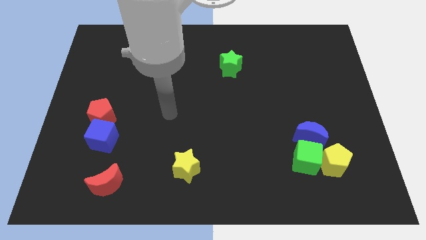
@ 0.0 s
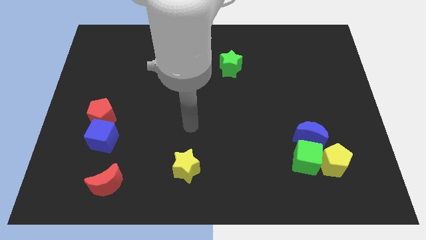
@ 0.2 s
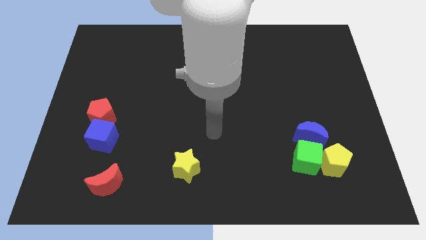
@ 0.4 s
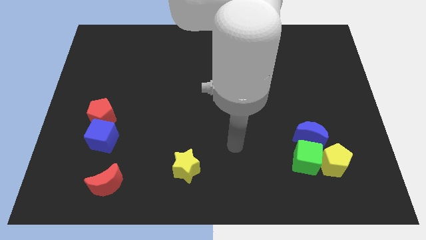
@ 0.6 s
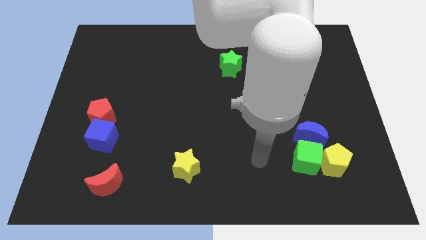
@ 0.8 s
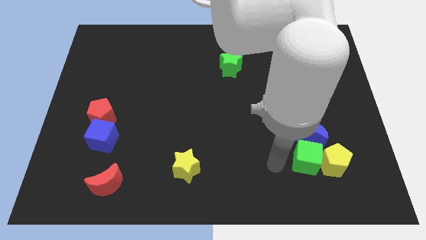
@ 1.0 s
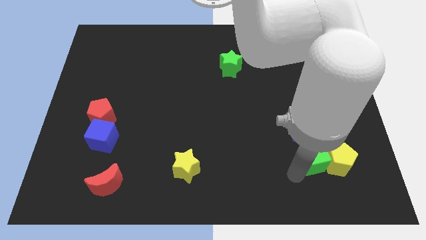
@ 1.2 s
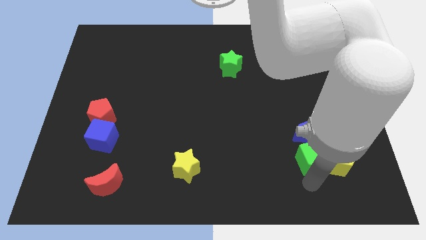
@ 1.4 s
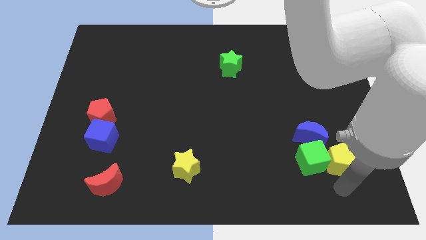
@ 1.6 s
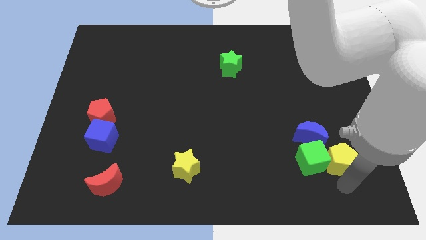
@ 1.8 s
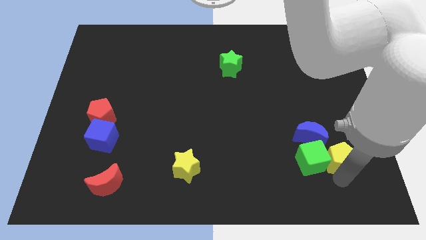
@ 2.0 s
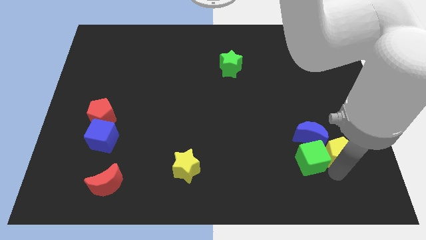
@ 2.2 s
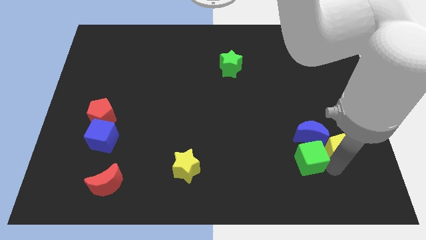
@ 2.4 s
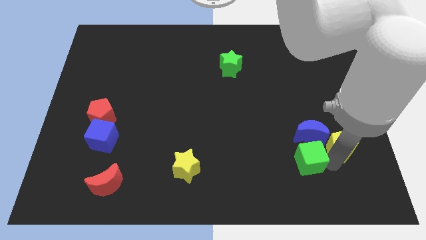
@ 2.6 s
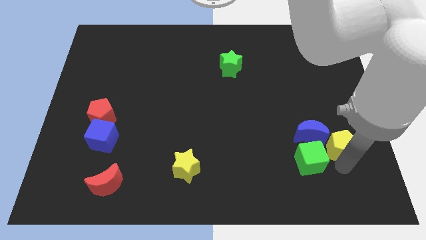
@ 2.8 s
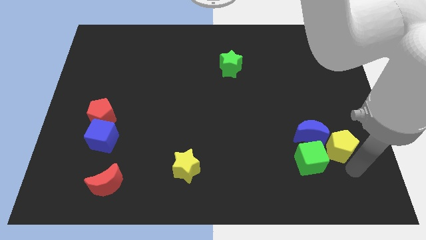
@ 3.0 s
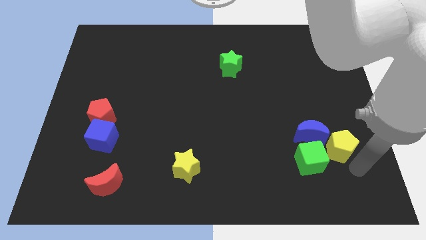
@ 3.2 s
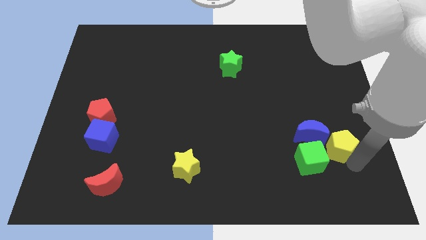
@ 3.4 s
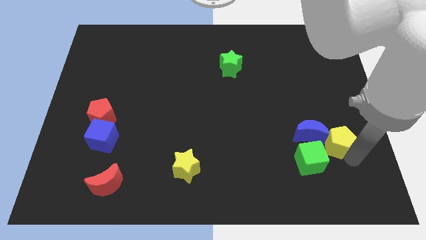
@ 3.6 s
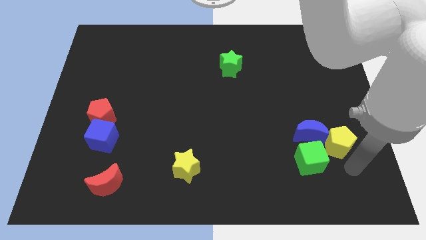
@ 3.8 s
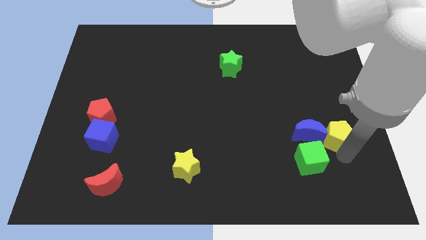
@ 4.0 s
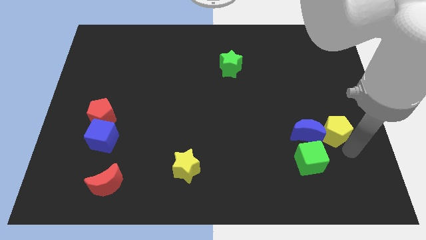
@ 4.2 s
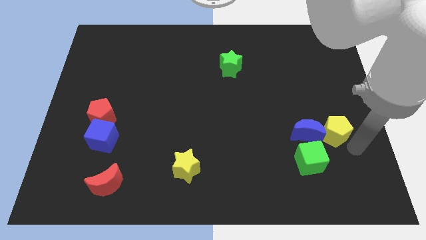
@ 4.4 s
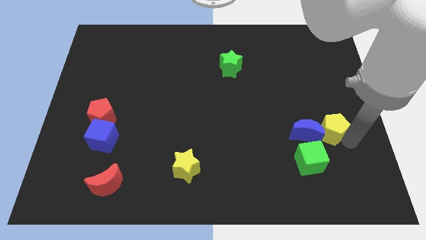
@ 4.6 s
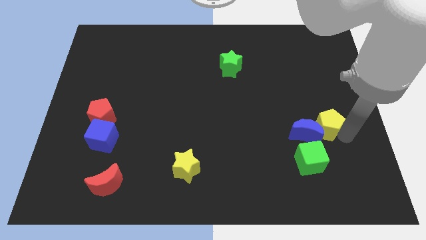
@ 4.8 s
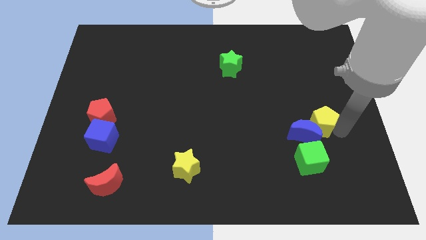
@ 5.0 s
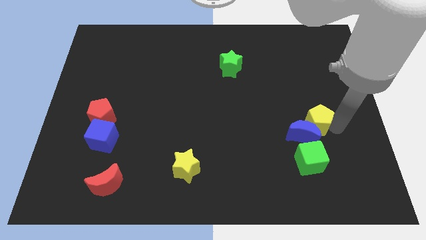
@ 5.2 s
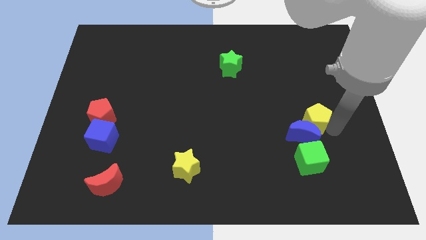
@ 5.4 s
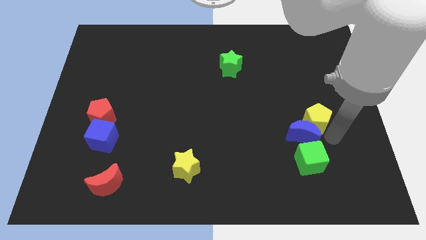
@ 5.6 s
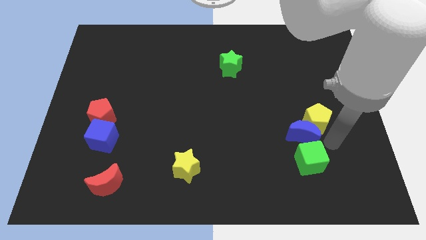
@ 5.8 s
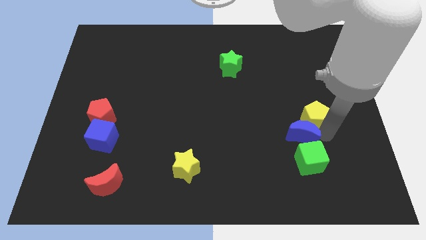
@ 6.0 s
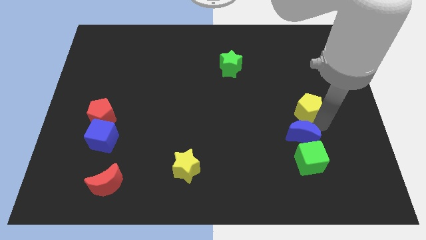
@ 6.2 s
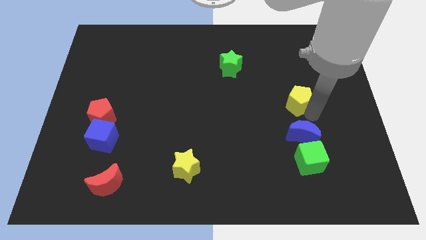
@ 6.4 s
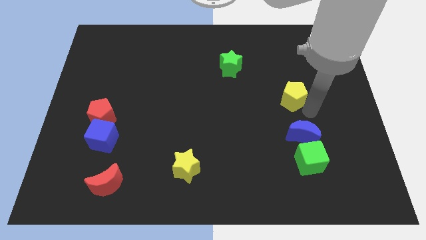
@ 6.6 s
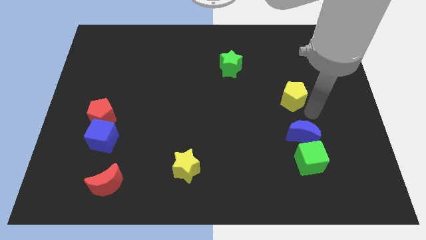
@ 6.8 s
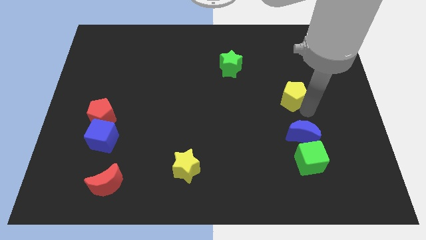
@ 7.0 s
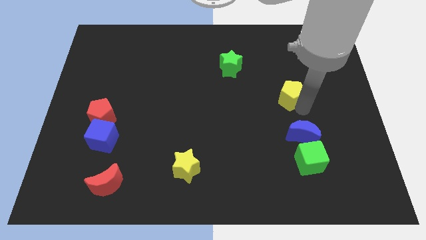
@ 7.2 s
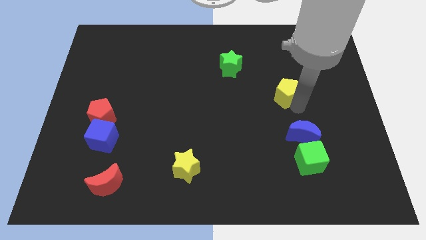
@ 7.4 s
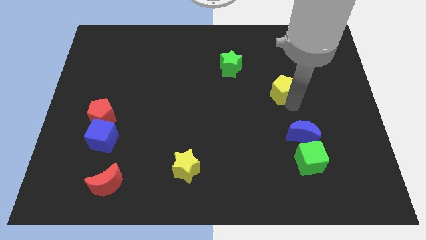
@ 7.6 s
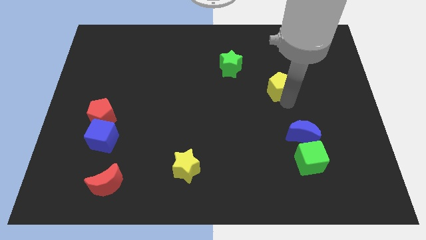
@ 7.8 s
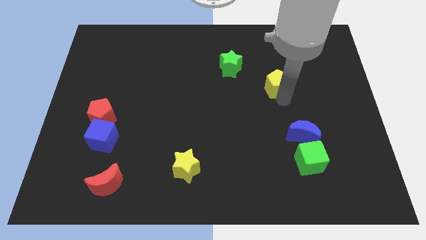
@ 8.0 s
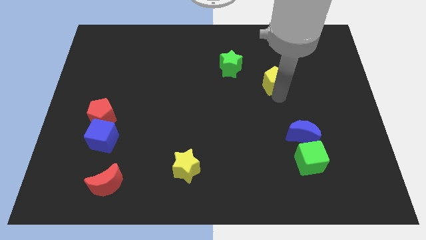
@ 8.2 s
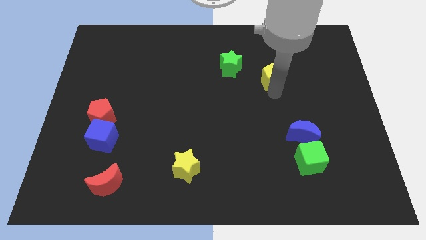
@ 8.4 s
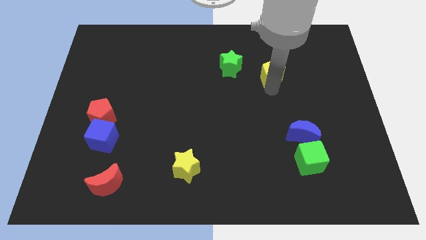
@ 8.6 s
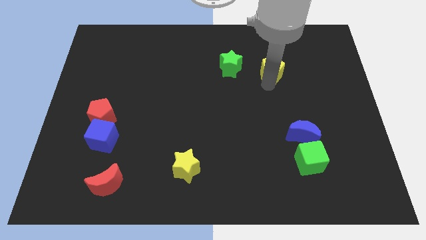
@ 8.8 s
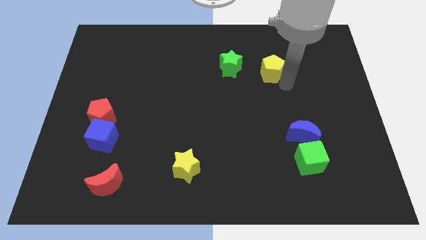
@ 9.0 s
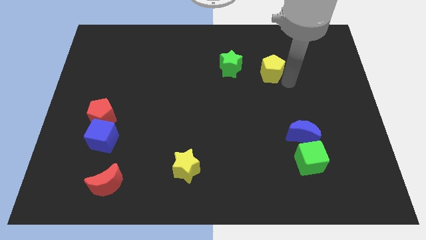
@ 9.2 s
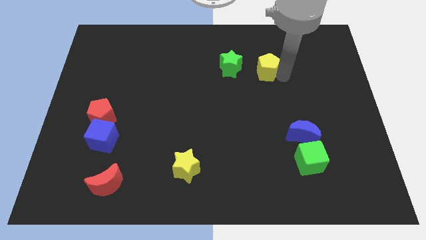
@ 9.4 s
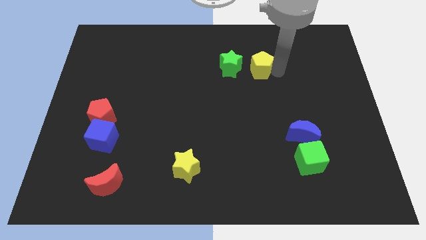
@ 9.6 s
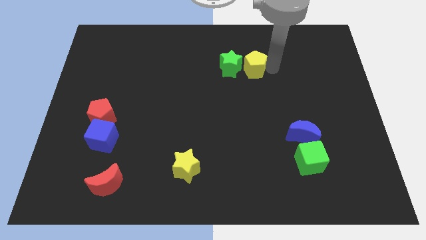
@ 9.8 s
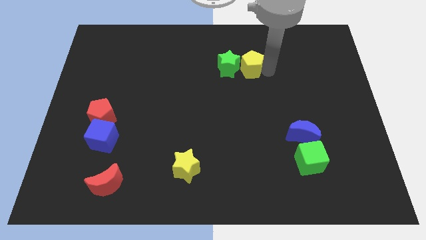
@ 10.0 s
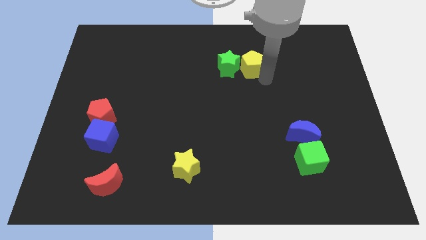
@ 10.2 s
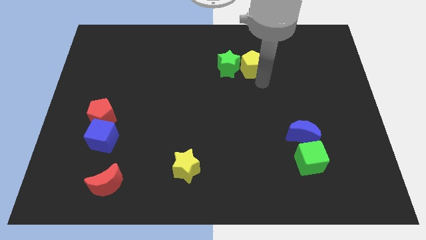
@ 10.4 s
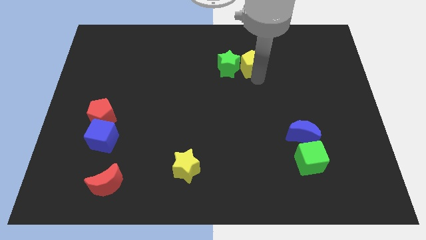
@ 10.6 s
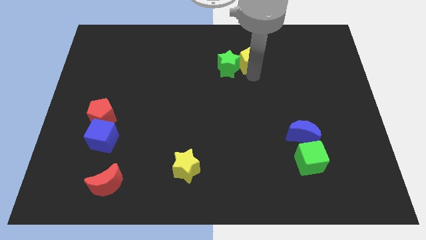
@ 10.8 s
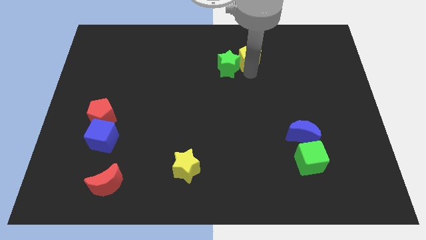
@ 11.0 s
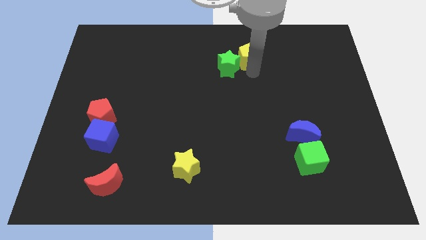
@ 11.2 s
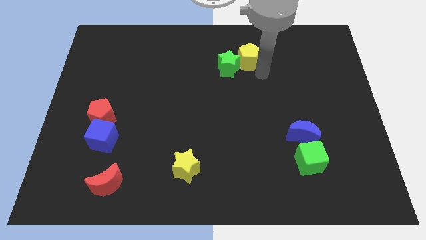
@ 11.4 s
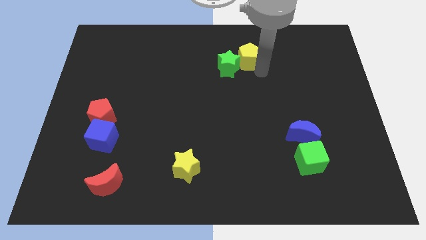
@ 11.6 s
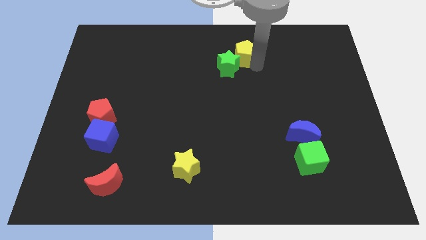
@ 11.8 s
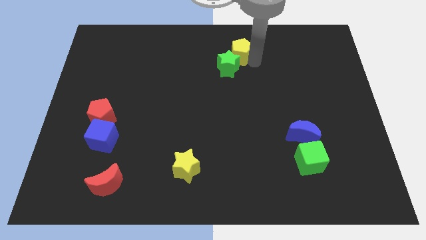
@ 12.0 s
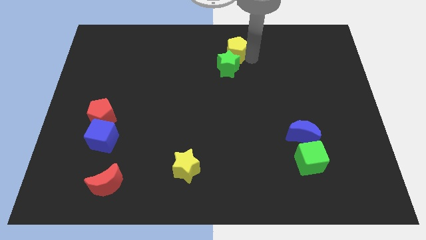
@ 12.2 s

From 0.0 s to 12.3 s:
slide the yellow pentagon to the towards your base
